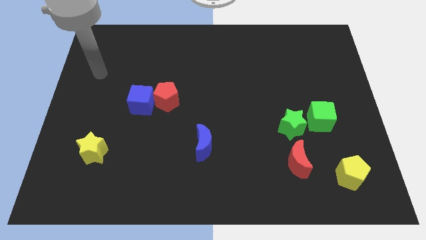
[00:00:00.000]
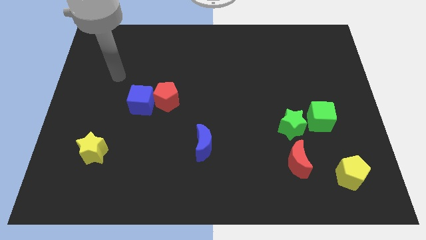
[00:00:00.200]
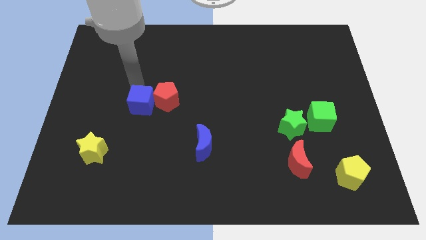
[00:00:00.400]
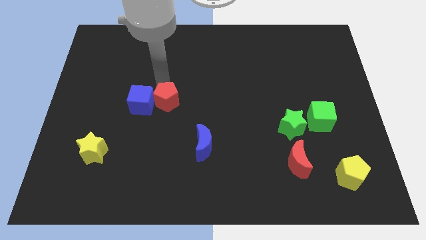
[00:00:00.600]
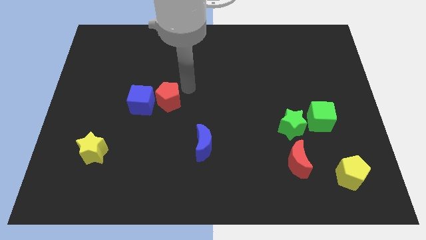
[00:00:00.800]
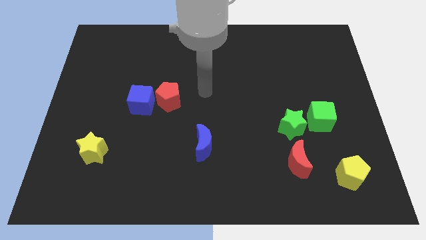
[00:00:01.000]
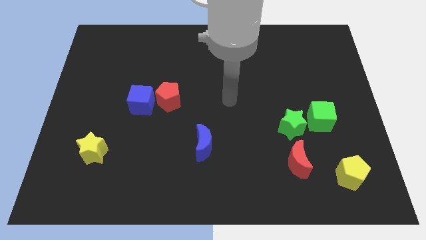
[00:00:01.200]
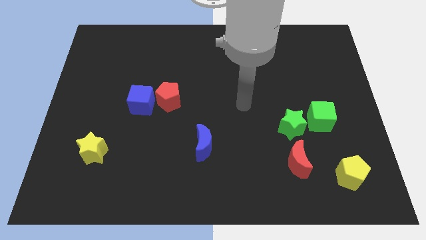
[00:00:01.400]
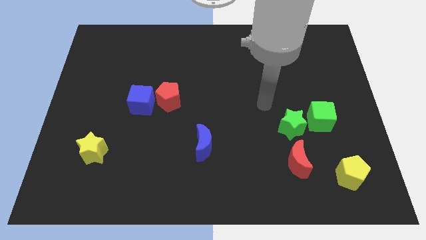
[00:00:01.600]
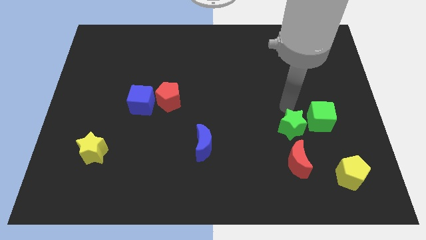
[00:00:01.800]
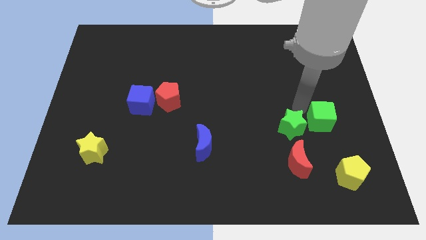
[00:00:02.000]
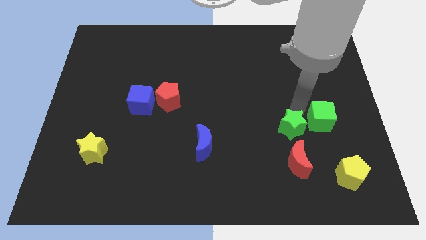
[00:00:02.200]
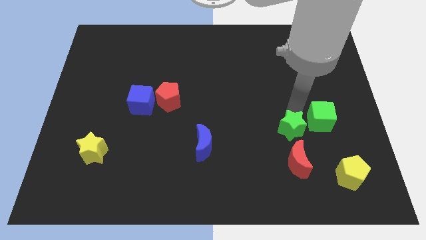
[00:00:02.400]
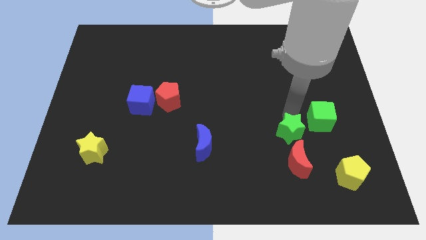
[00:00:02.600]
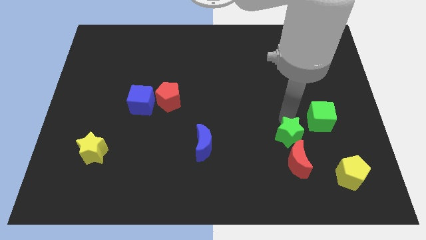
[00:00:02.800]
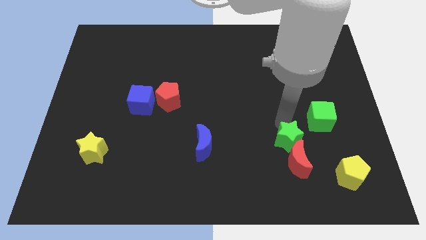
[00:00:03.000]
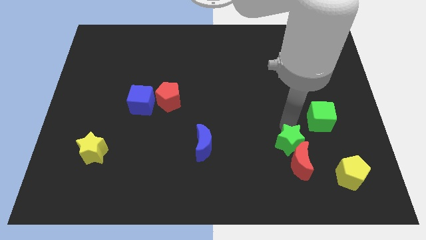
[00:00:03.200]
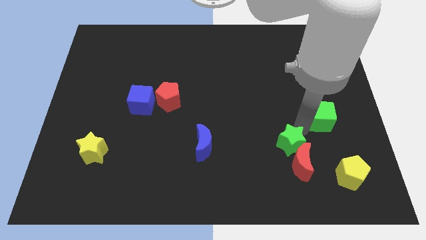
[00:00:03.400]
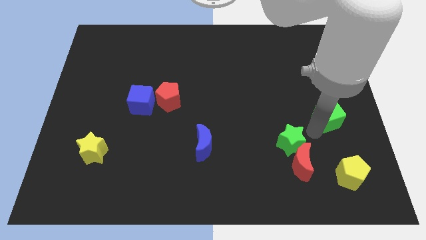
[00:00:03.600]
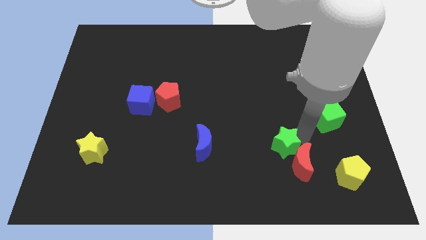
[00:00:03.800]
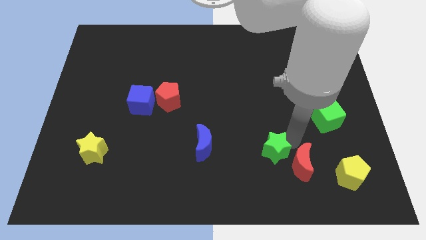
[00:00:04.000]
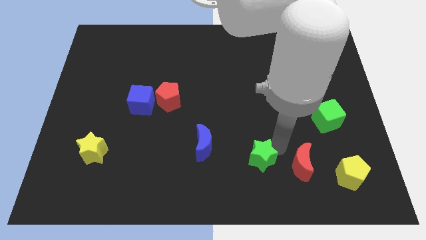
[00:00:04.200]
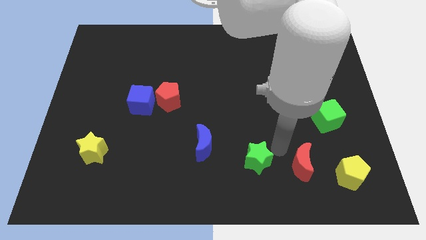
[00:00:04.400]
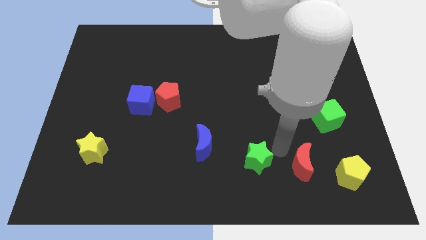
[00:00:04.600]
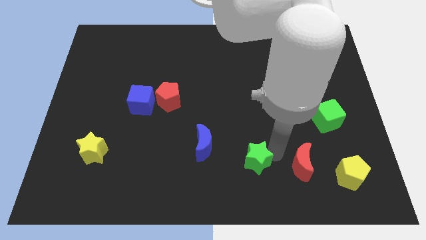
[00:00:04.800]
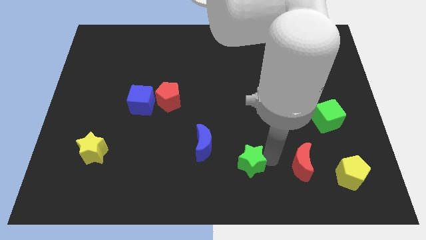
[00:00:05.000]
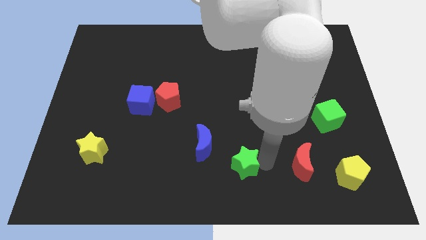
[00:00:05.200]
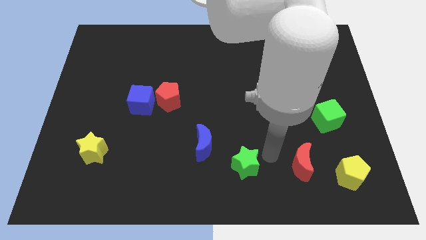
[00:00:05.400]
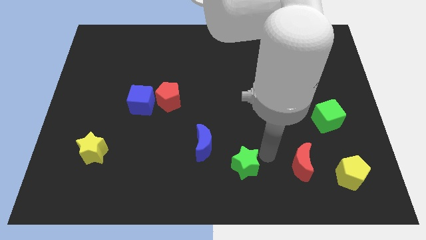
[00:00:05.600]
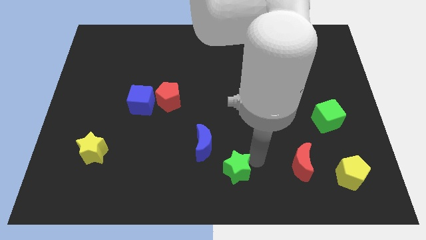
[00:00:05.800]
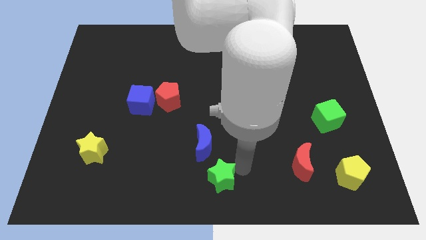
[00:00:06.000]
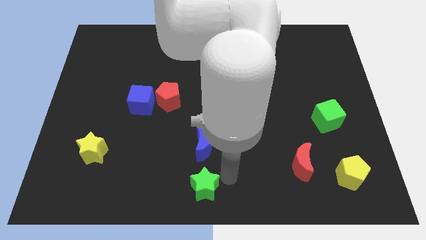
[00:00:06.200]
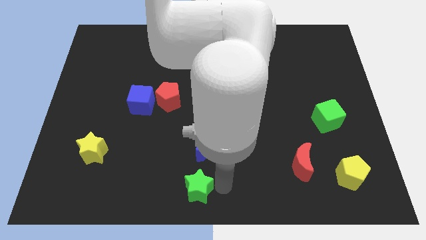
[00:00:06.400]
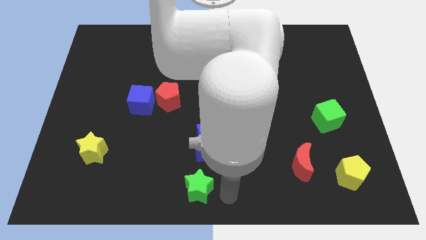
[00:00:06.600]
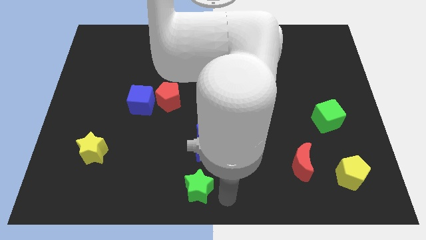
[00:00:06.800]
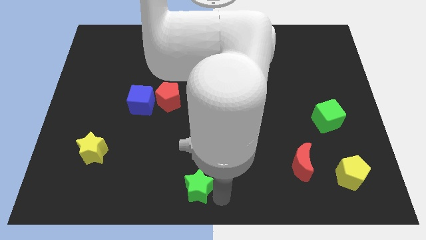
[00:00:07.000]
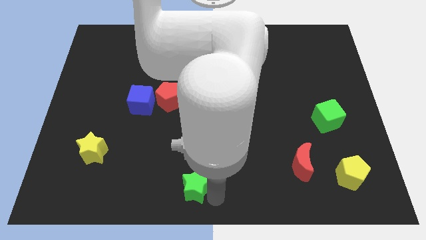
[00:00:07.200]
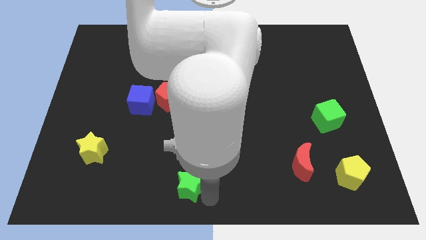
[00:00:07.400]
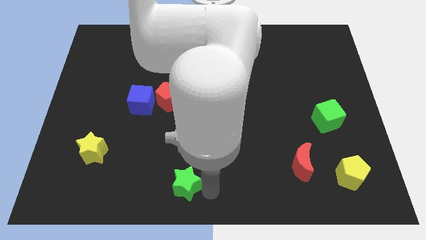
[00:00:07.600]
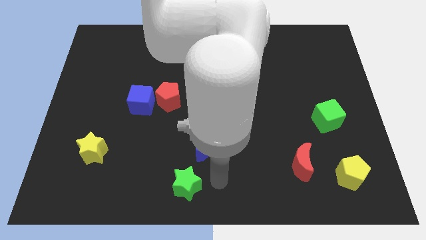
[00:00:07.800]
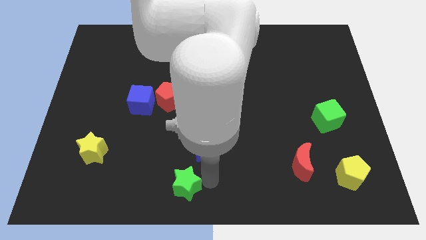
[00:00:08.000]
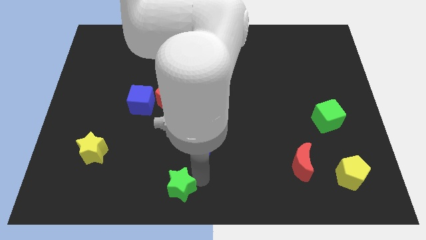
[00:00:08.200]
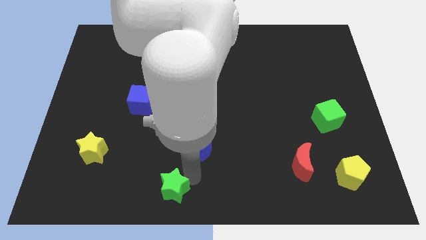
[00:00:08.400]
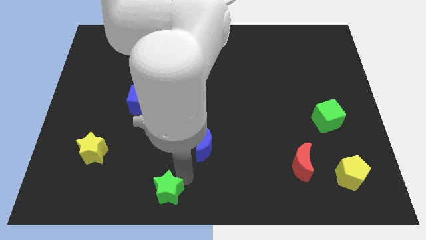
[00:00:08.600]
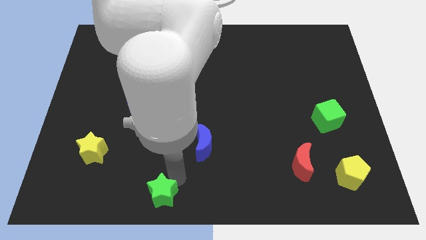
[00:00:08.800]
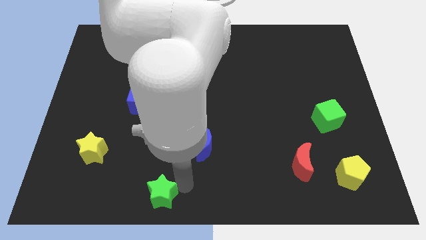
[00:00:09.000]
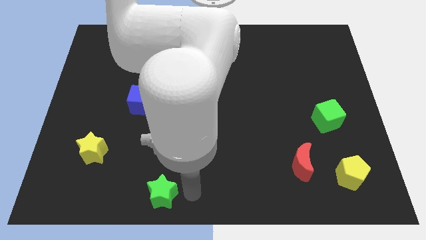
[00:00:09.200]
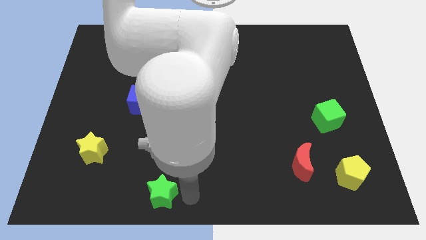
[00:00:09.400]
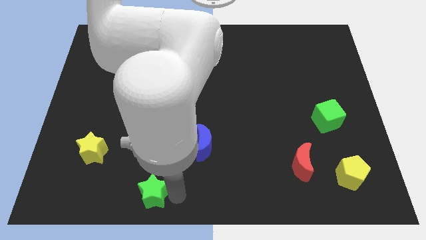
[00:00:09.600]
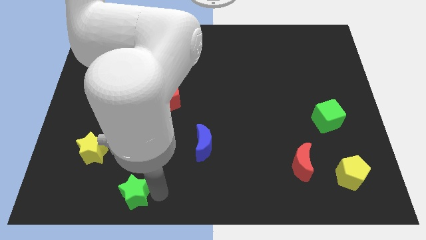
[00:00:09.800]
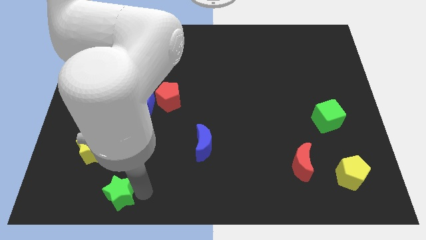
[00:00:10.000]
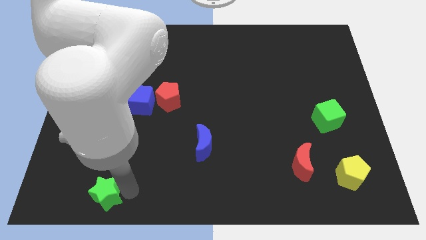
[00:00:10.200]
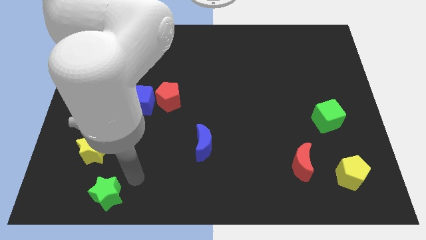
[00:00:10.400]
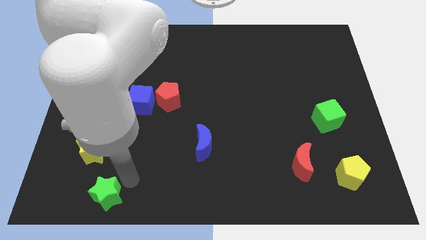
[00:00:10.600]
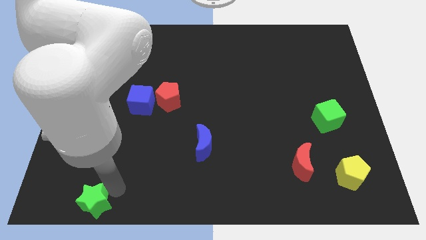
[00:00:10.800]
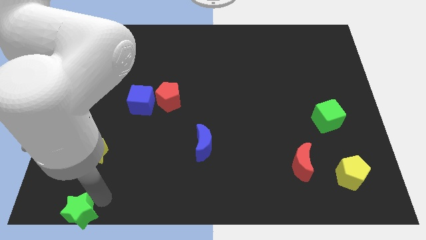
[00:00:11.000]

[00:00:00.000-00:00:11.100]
slide the green star to the bottom left of the board

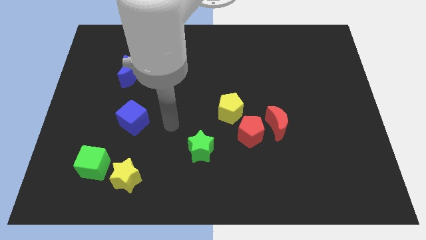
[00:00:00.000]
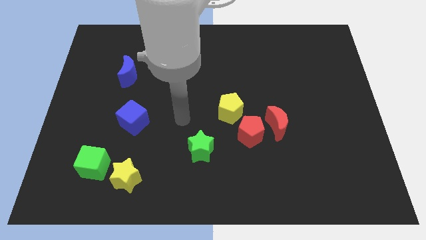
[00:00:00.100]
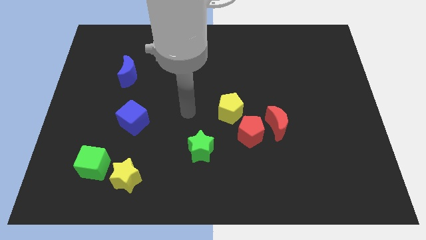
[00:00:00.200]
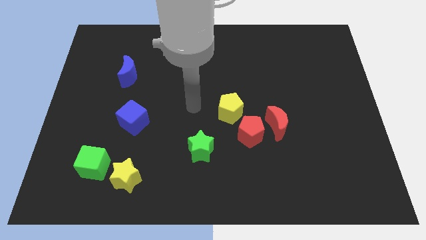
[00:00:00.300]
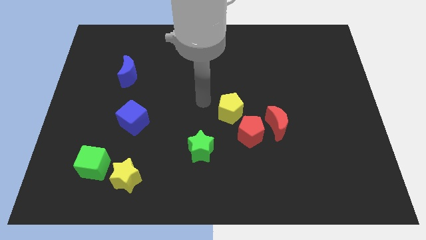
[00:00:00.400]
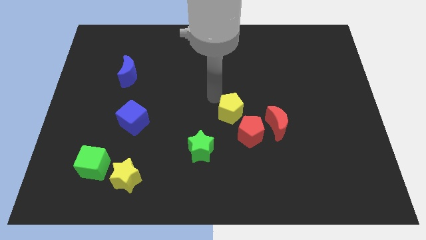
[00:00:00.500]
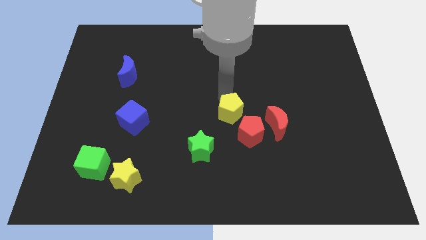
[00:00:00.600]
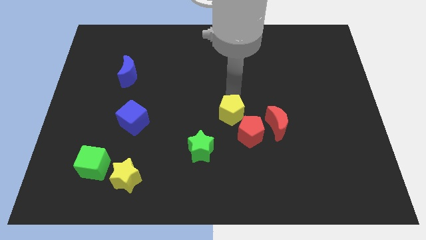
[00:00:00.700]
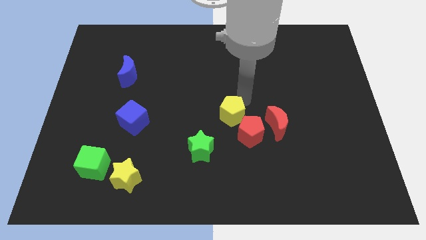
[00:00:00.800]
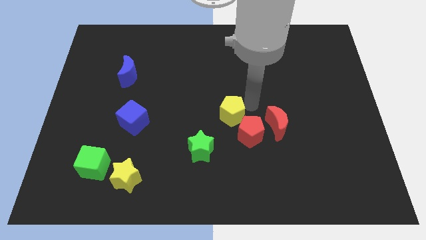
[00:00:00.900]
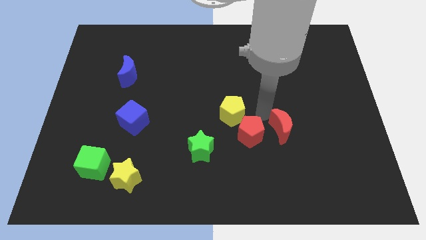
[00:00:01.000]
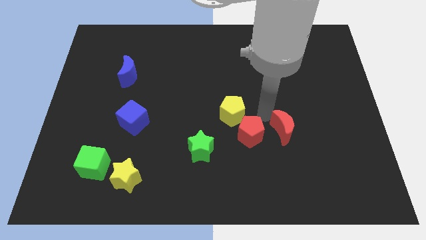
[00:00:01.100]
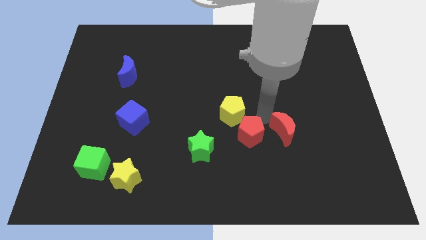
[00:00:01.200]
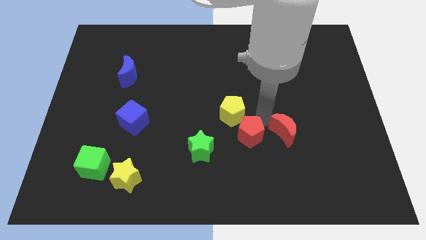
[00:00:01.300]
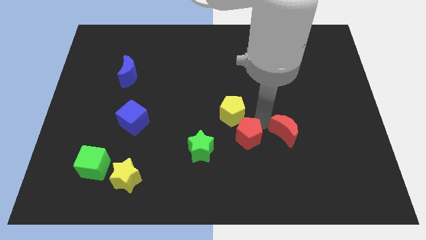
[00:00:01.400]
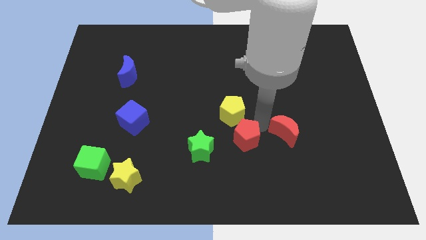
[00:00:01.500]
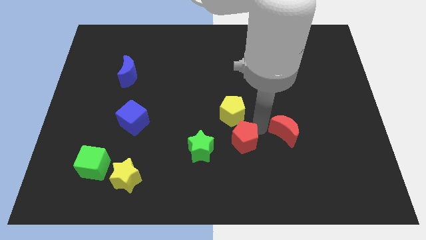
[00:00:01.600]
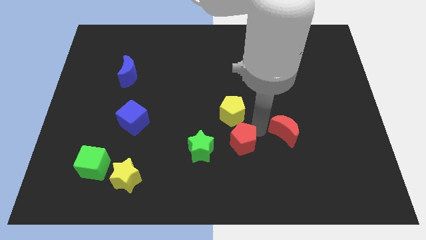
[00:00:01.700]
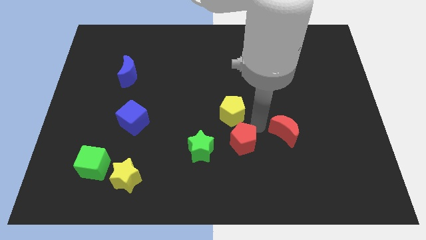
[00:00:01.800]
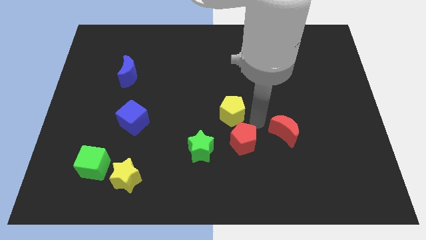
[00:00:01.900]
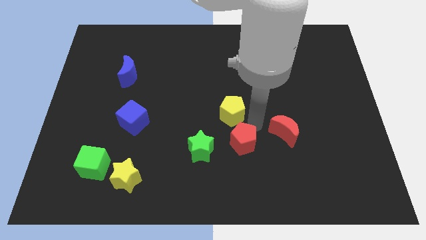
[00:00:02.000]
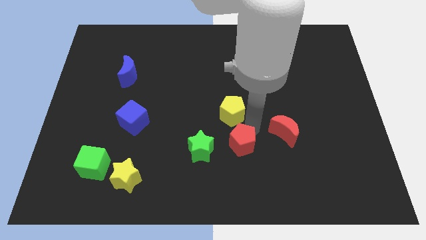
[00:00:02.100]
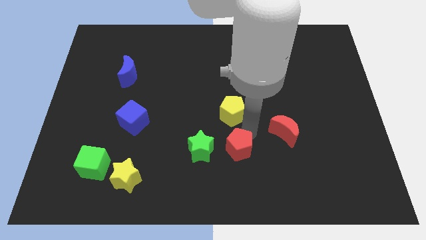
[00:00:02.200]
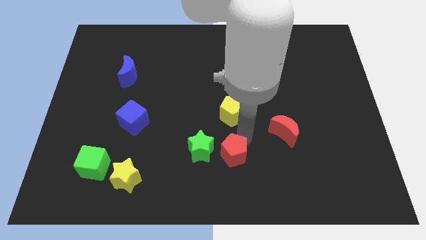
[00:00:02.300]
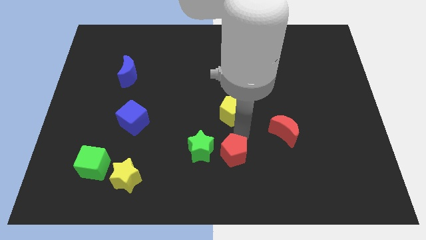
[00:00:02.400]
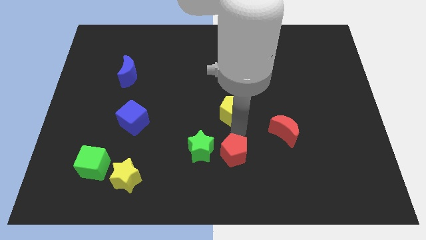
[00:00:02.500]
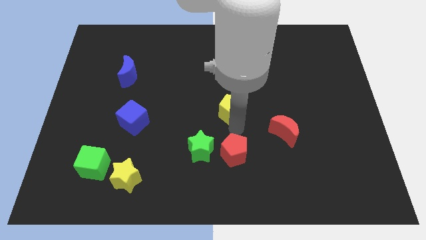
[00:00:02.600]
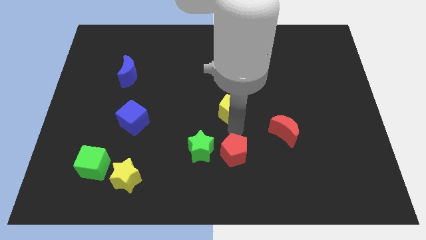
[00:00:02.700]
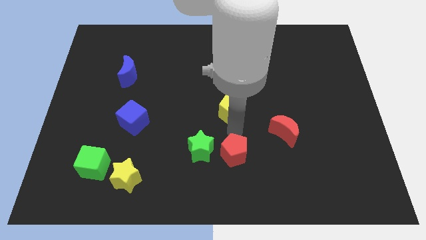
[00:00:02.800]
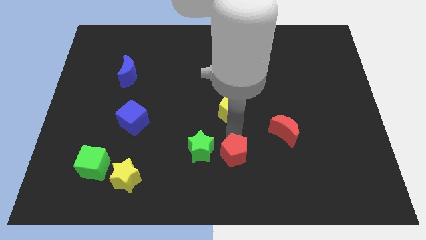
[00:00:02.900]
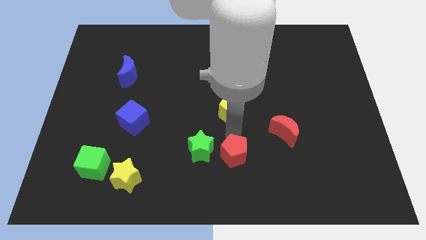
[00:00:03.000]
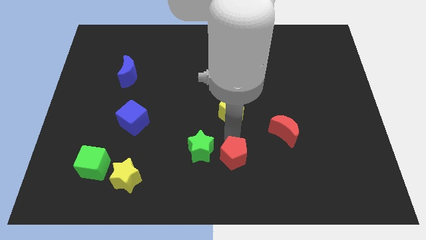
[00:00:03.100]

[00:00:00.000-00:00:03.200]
push the red pentagon to the bottom
